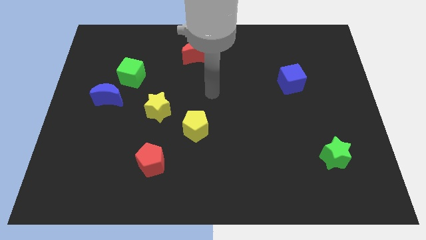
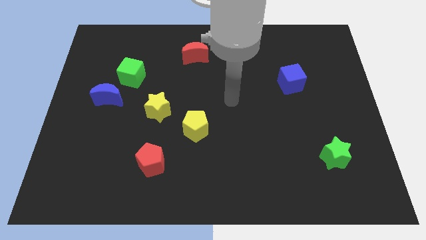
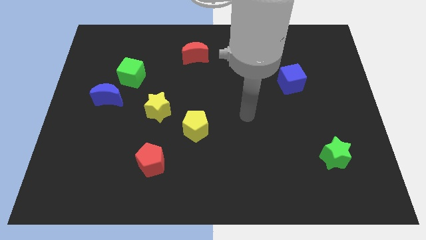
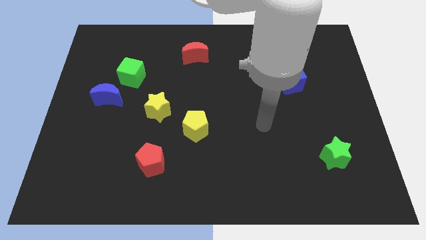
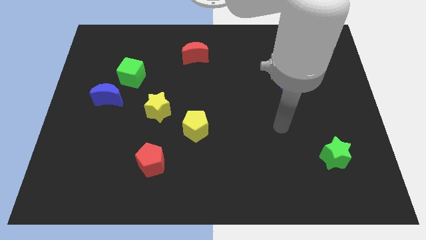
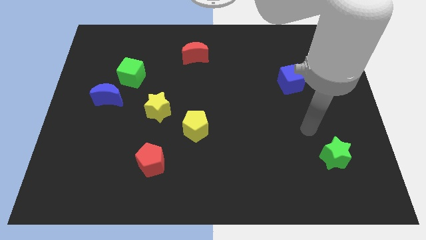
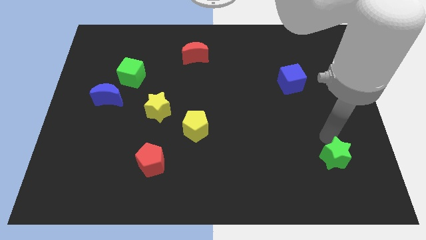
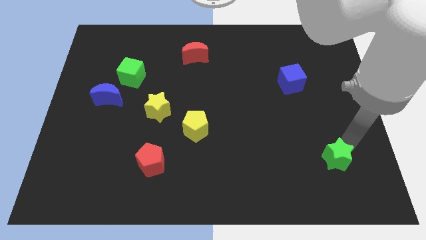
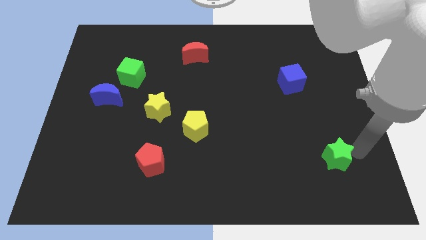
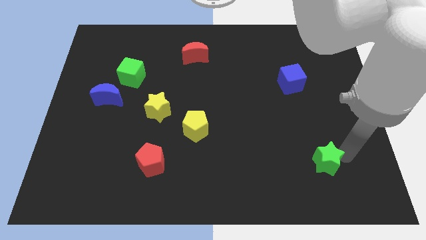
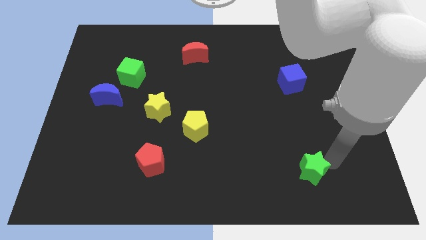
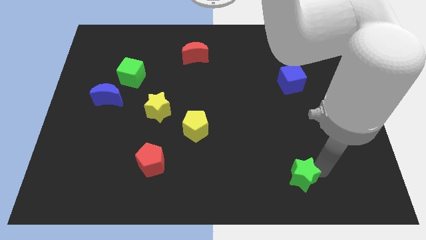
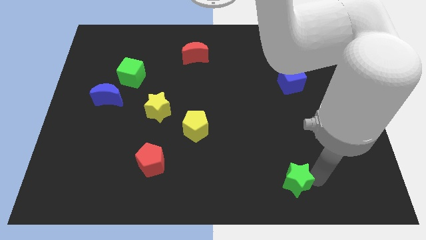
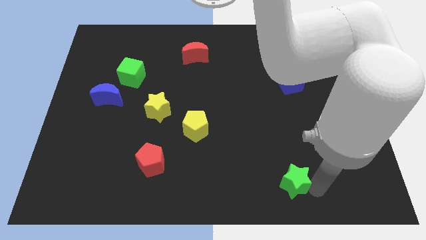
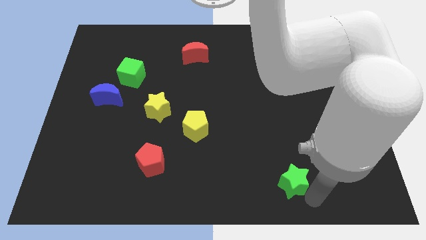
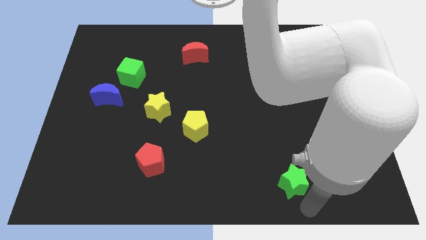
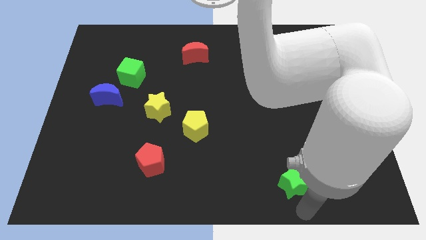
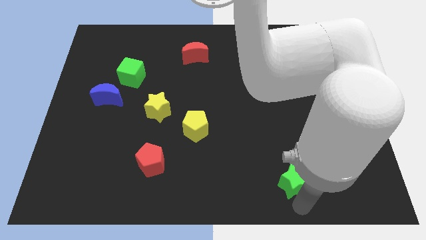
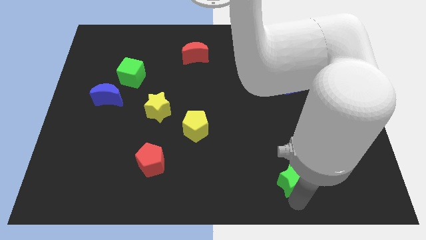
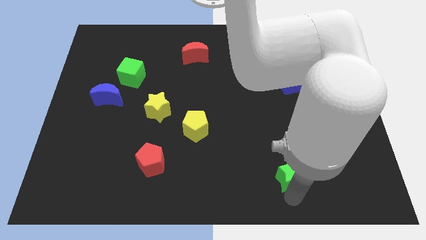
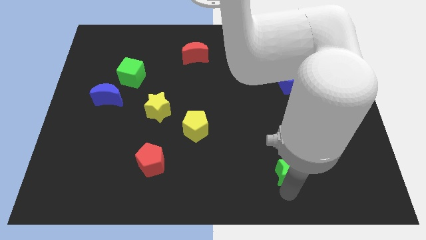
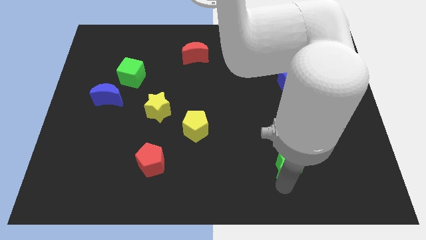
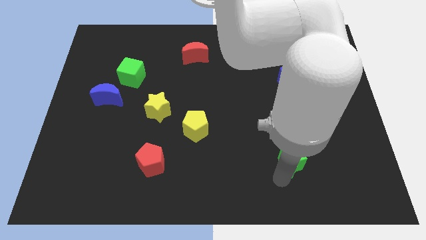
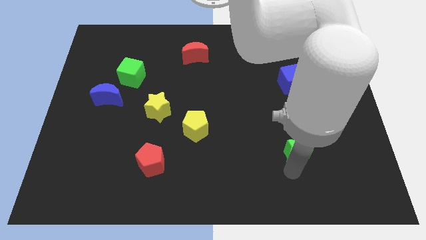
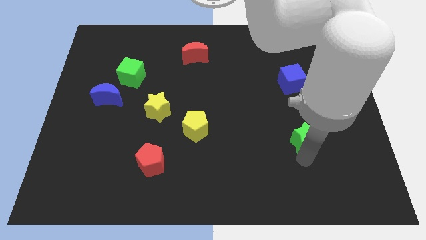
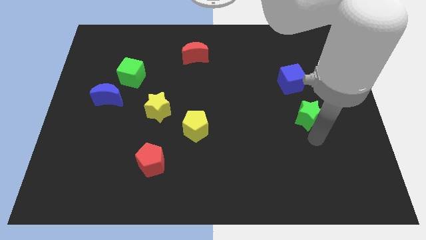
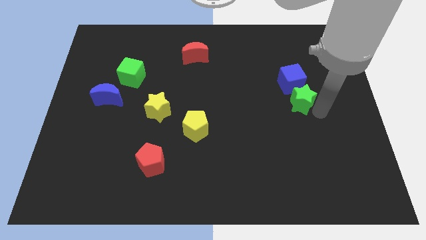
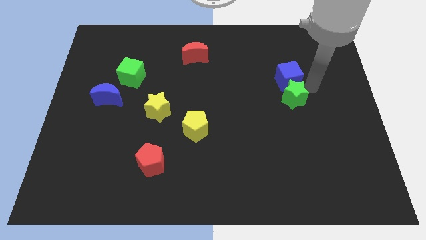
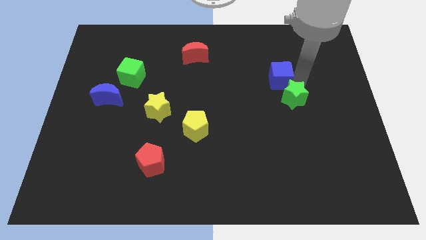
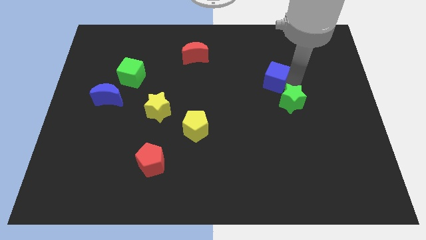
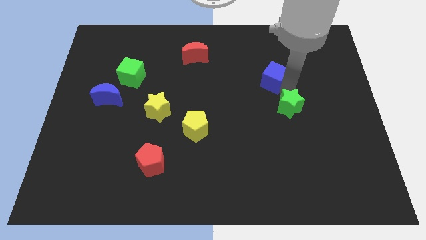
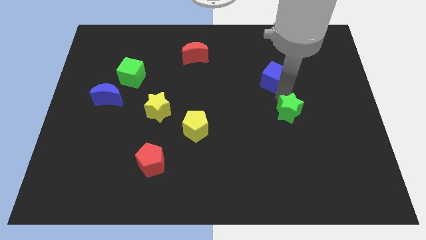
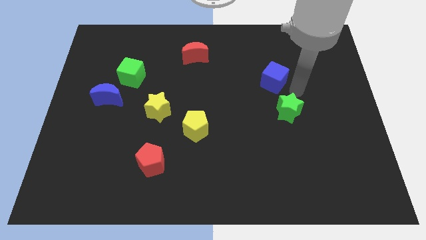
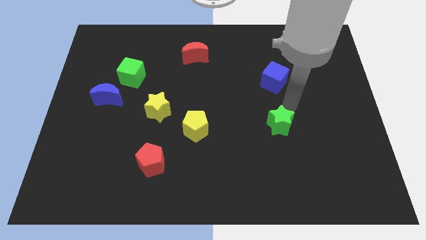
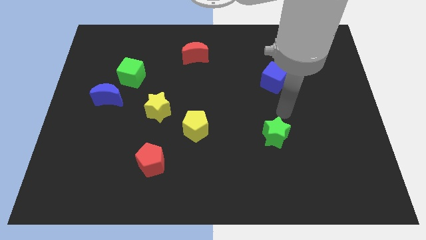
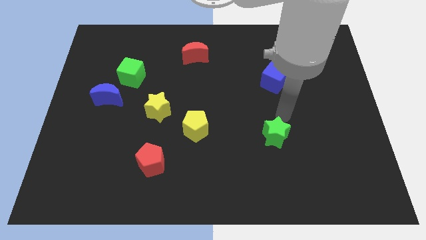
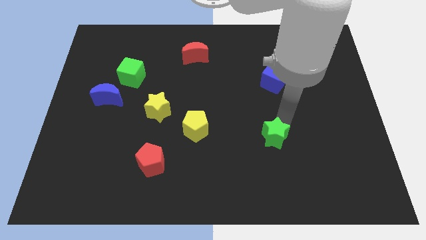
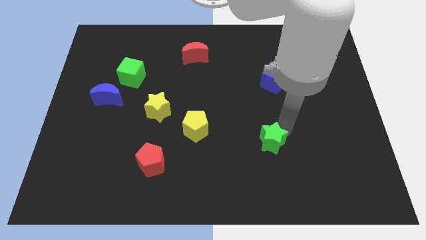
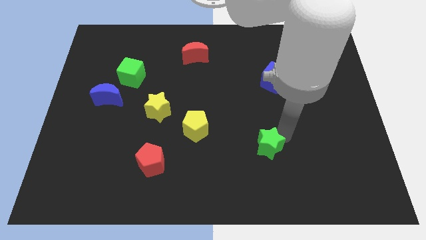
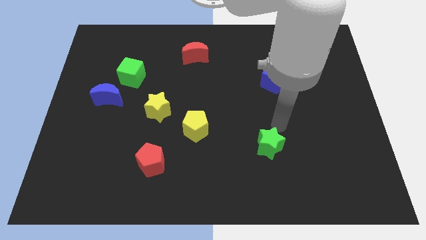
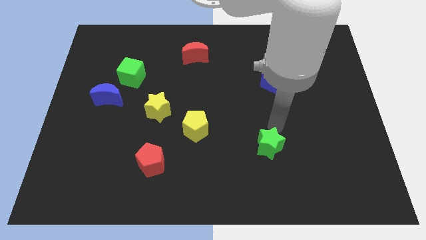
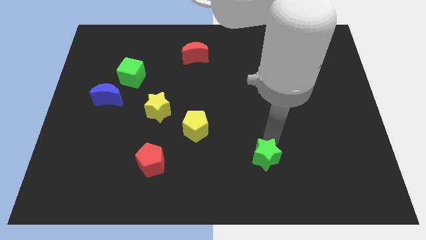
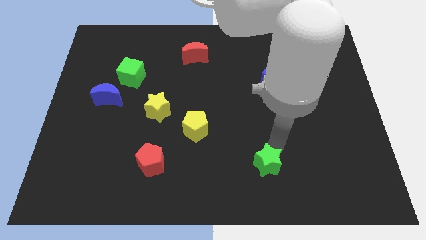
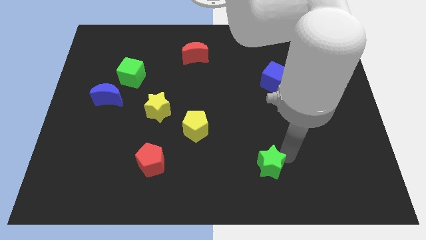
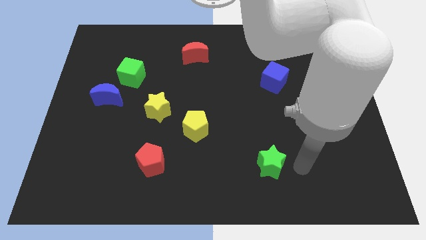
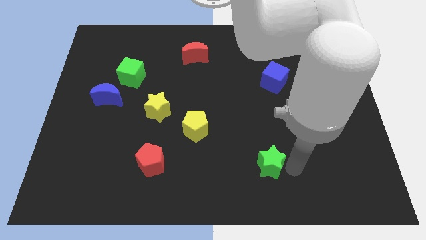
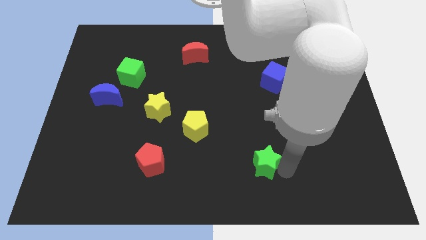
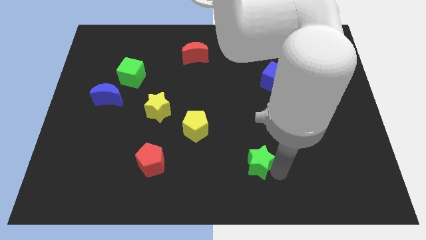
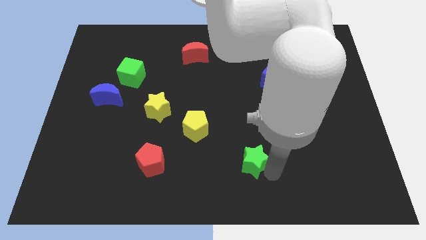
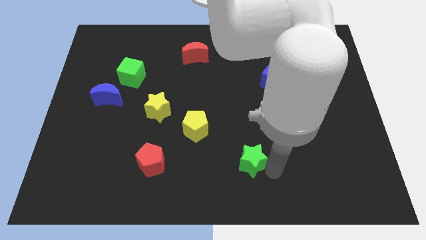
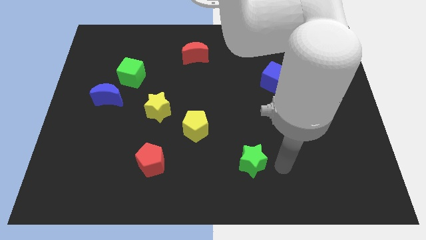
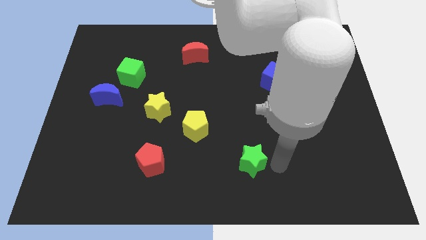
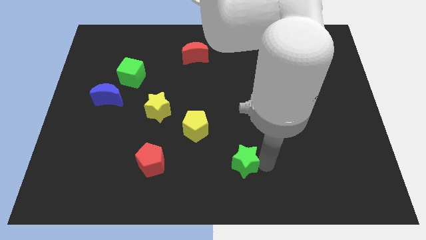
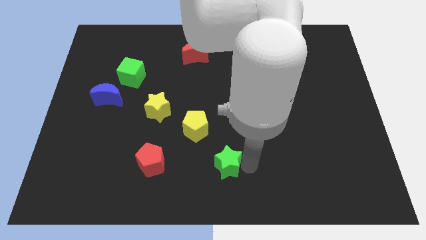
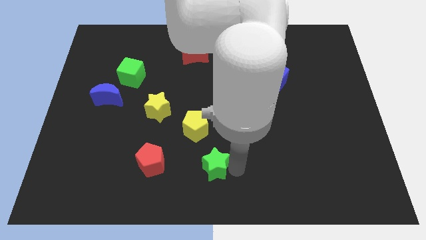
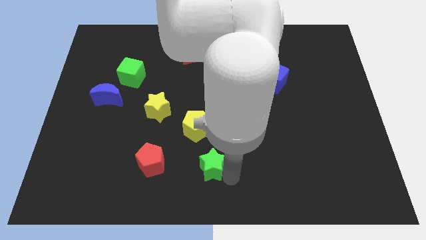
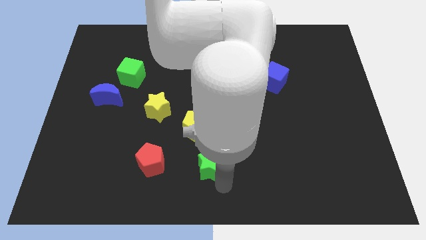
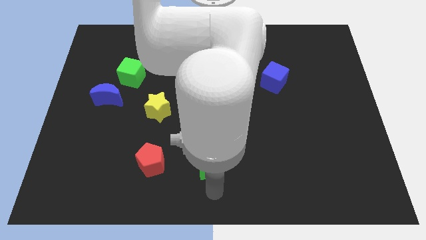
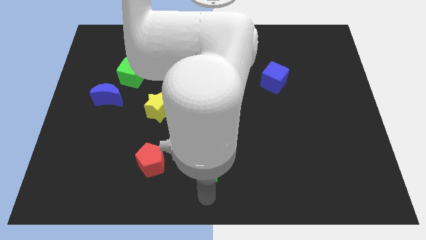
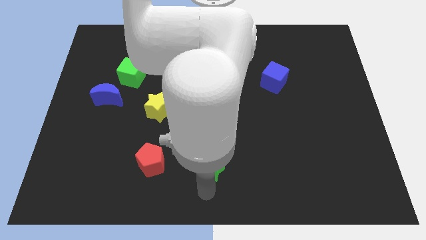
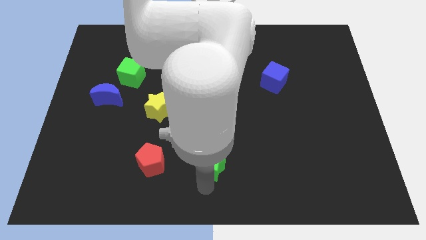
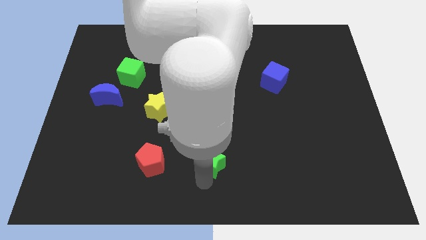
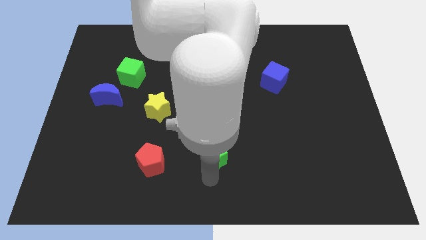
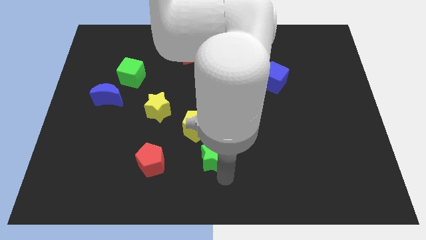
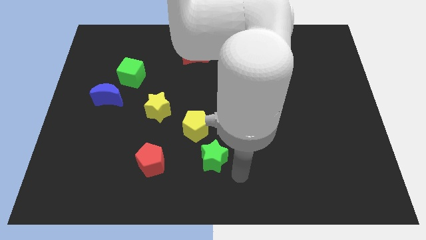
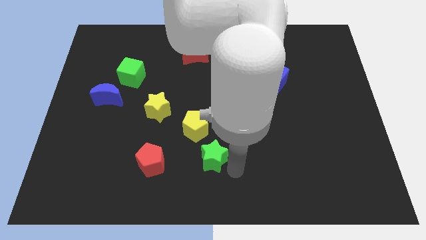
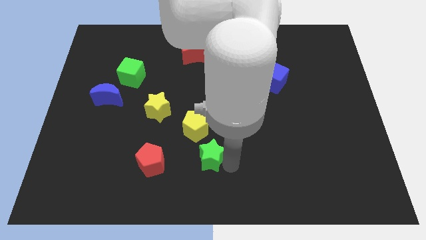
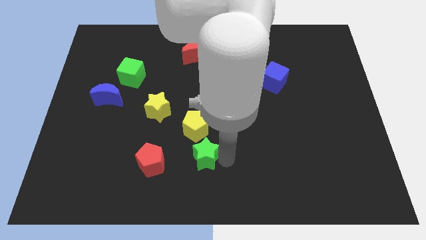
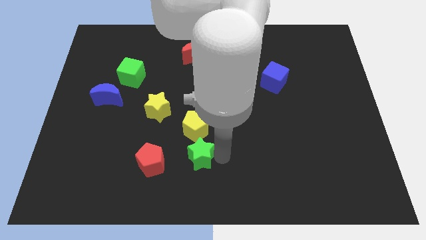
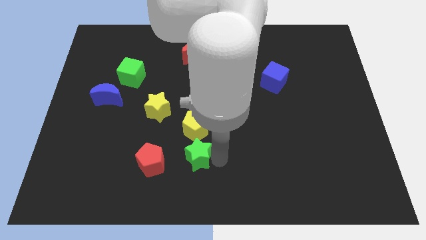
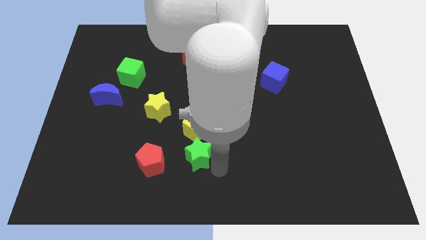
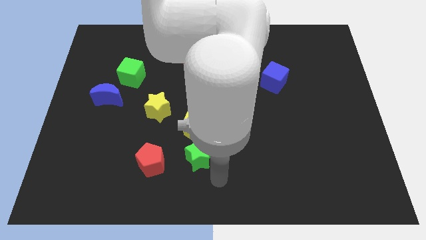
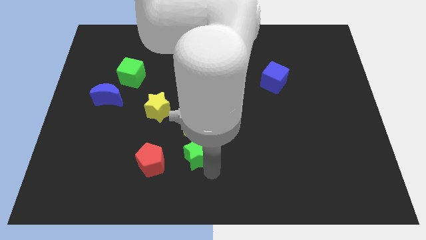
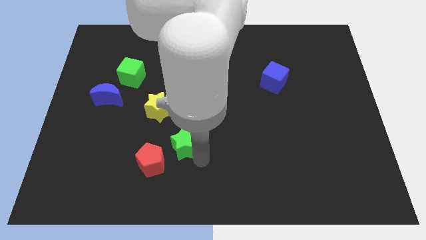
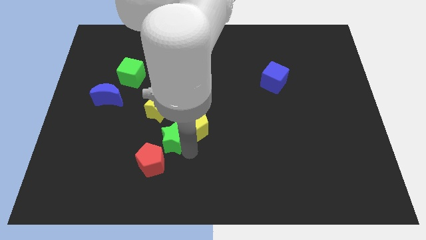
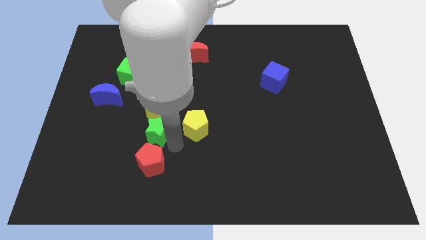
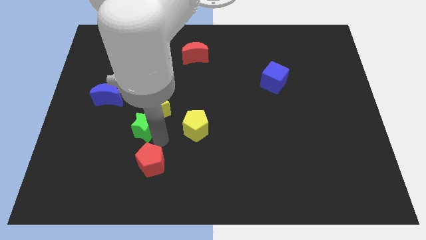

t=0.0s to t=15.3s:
slide the green star next to the yellow star
